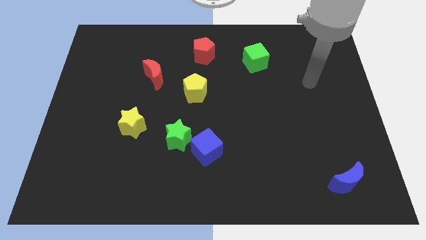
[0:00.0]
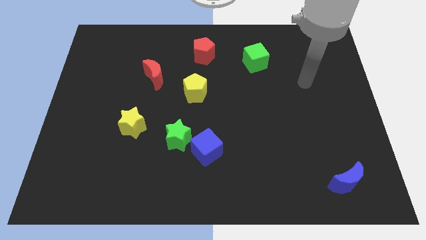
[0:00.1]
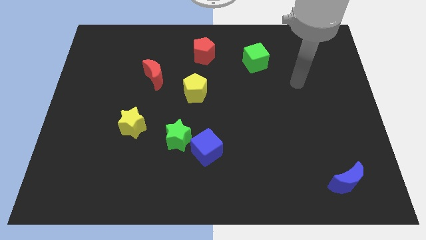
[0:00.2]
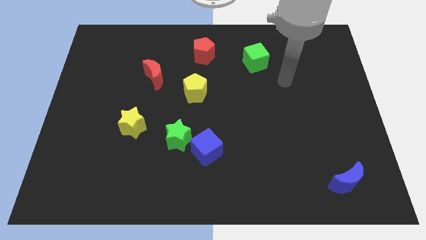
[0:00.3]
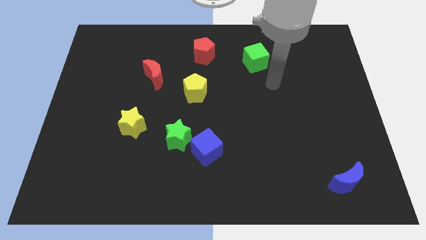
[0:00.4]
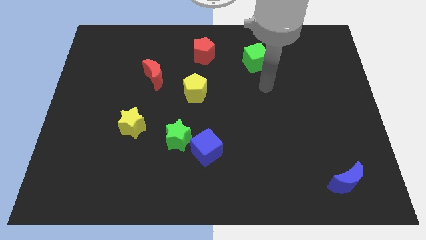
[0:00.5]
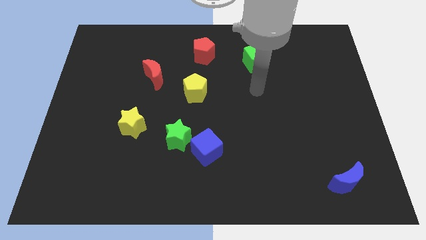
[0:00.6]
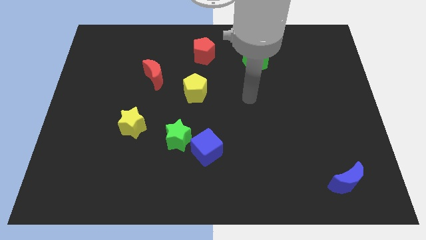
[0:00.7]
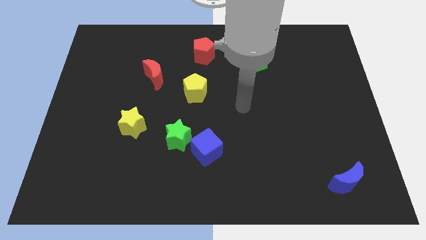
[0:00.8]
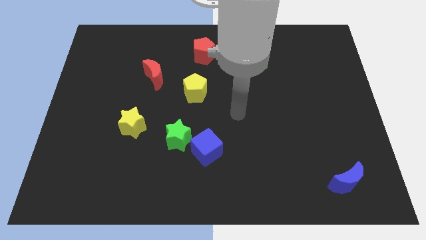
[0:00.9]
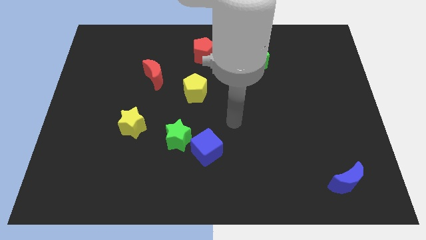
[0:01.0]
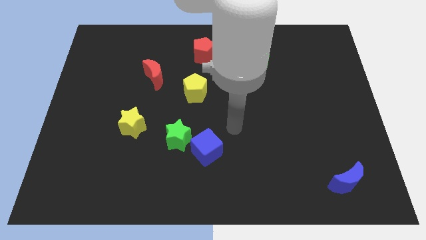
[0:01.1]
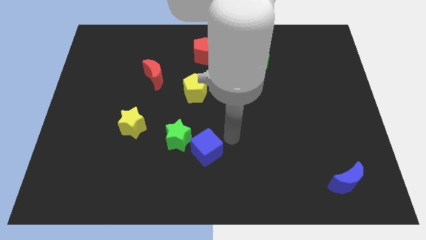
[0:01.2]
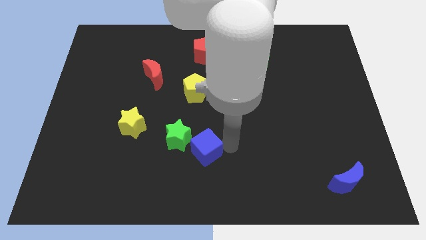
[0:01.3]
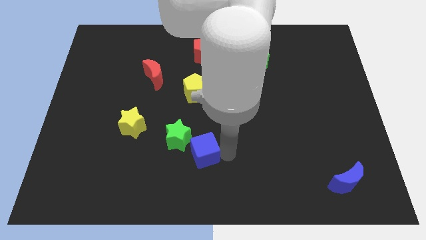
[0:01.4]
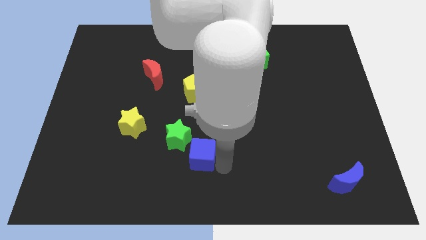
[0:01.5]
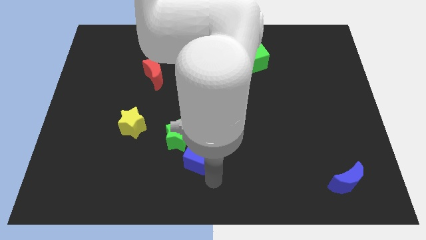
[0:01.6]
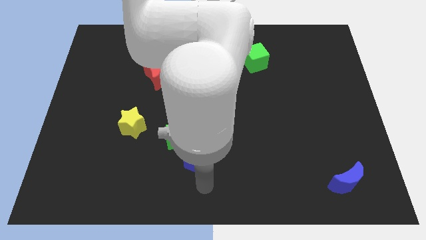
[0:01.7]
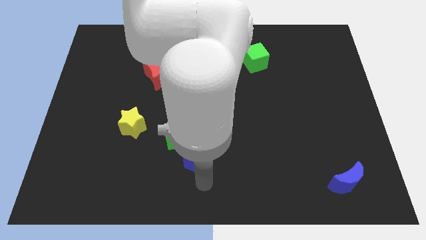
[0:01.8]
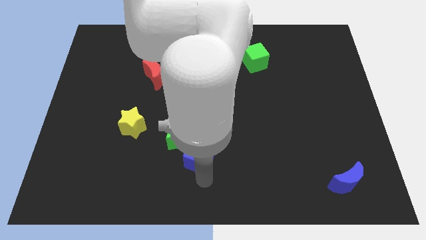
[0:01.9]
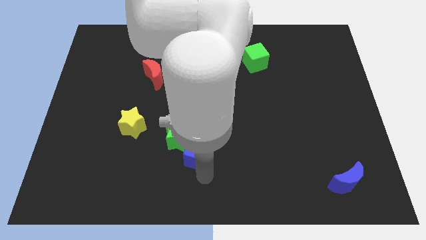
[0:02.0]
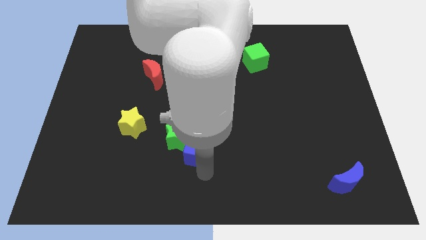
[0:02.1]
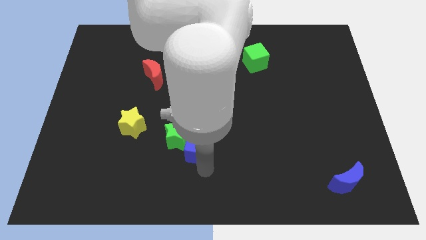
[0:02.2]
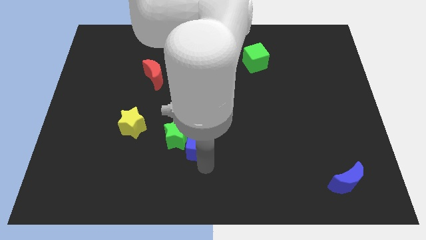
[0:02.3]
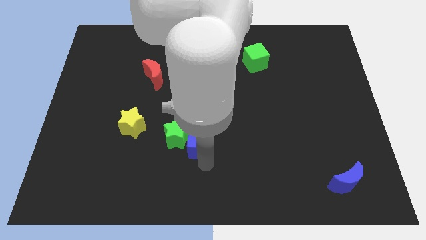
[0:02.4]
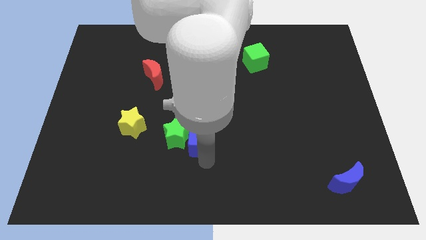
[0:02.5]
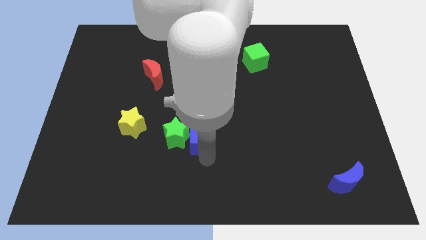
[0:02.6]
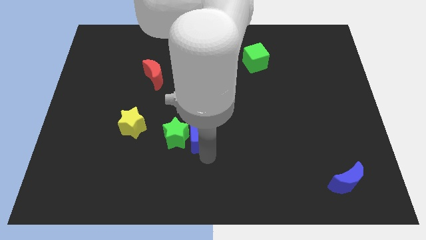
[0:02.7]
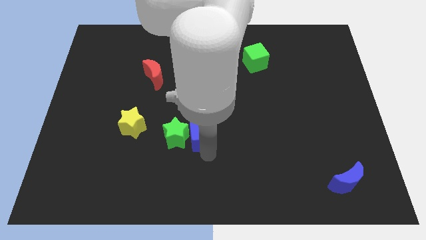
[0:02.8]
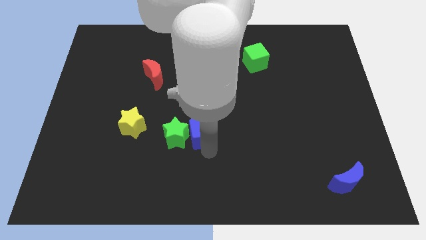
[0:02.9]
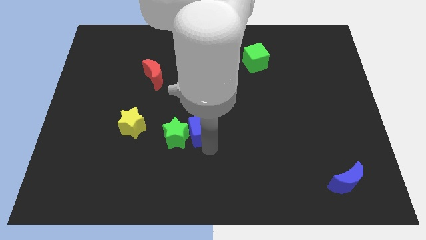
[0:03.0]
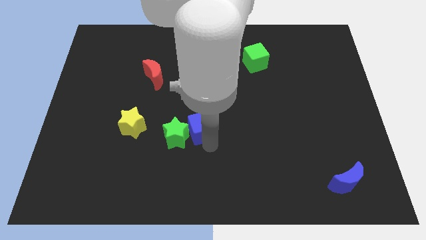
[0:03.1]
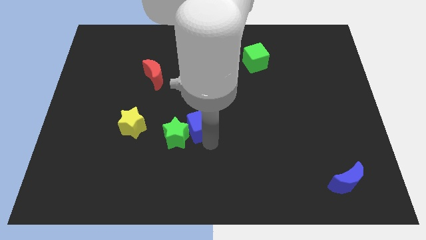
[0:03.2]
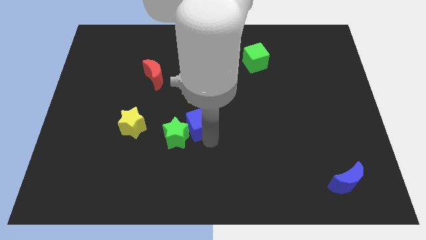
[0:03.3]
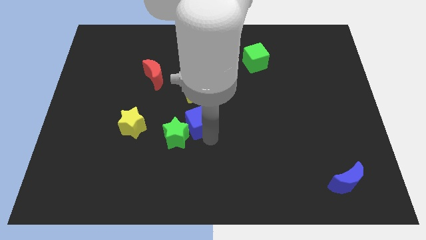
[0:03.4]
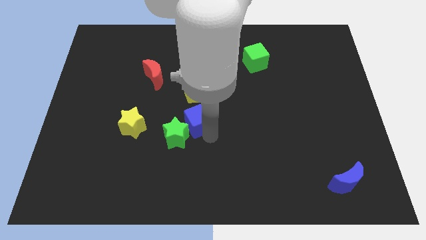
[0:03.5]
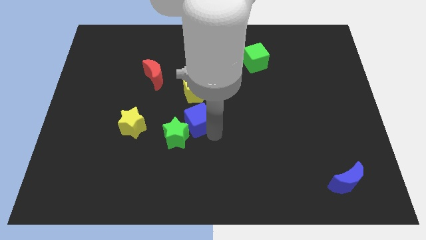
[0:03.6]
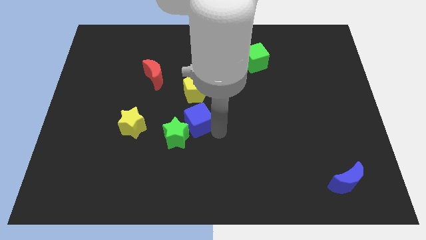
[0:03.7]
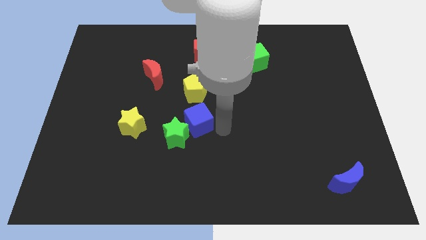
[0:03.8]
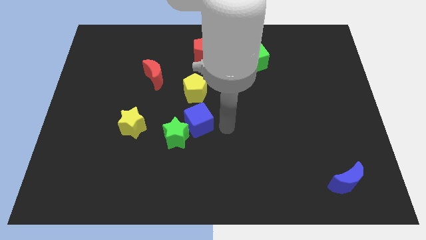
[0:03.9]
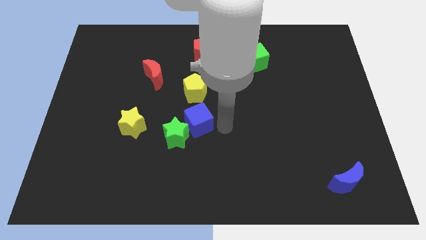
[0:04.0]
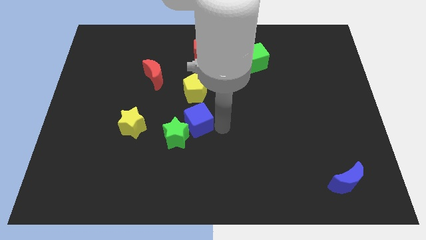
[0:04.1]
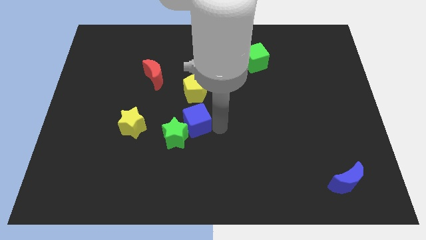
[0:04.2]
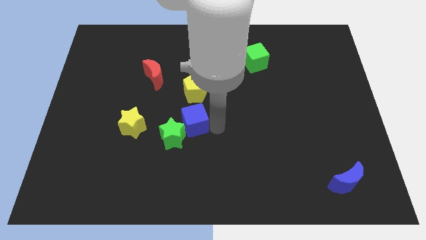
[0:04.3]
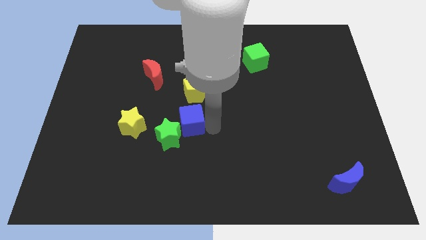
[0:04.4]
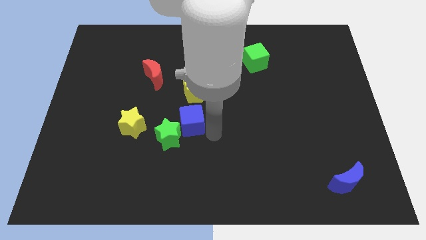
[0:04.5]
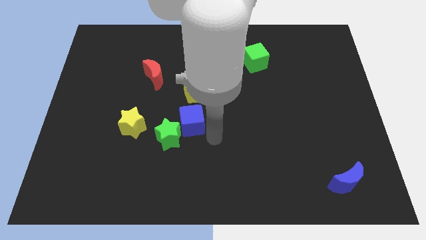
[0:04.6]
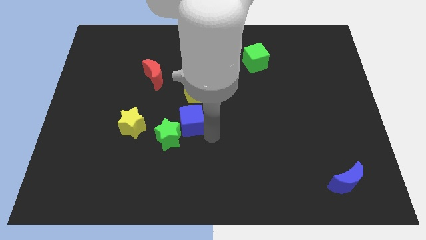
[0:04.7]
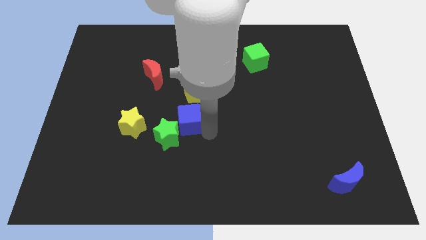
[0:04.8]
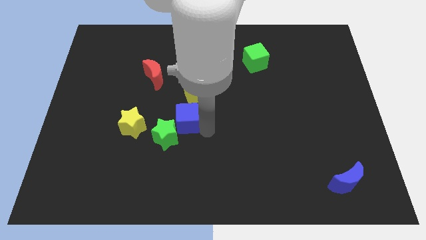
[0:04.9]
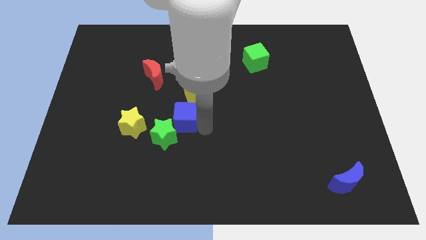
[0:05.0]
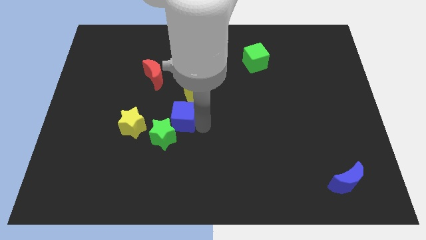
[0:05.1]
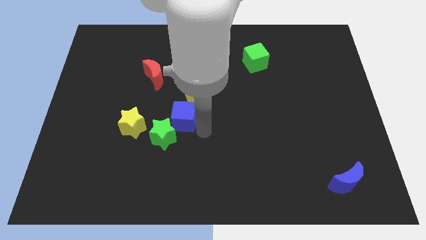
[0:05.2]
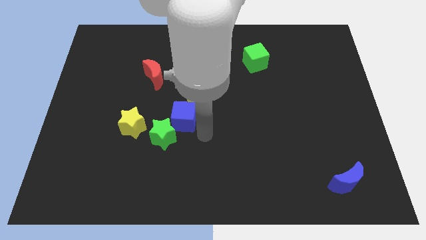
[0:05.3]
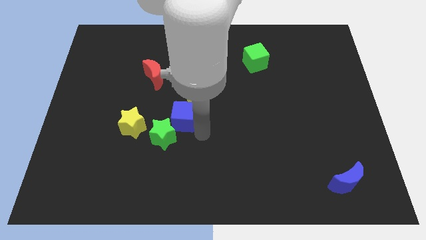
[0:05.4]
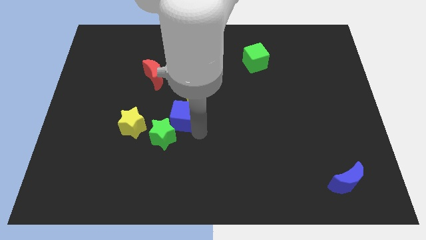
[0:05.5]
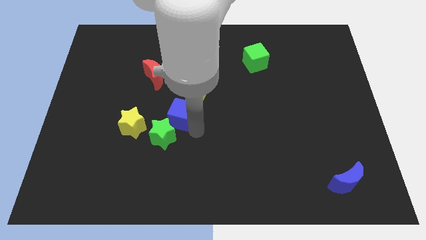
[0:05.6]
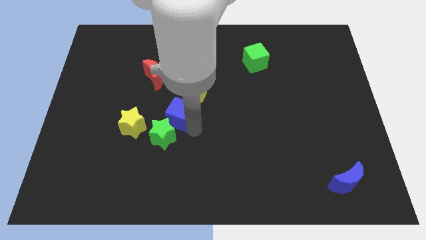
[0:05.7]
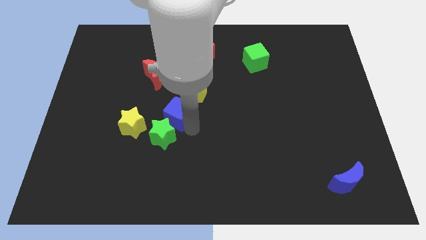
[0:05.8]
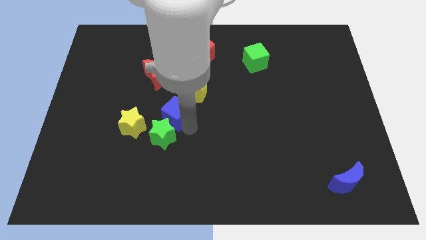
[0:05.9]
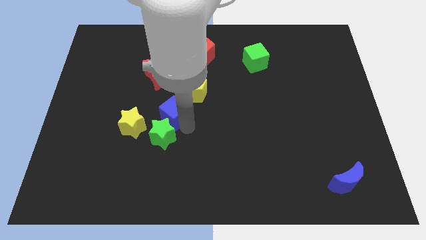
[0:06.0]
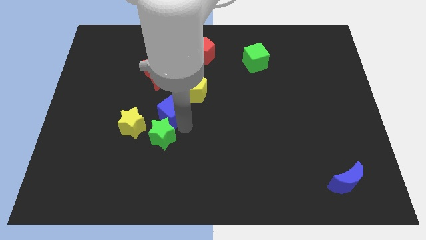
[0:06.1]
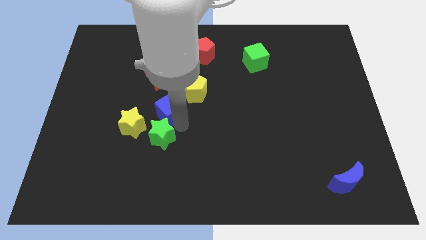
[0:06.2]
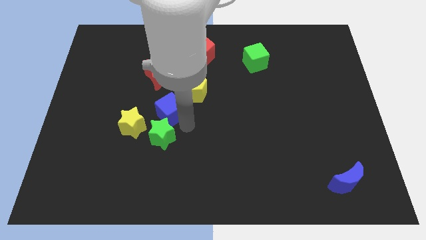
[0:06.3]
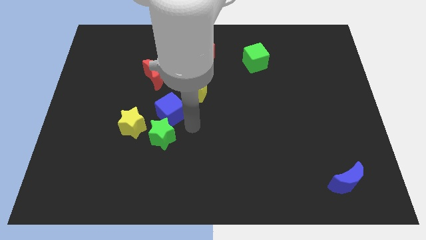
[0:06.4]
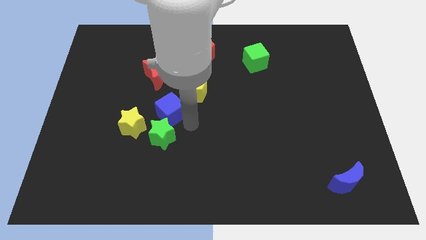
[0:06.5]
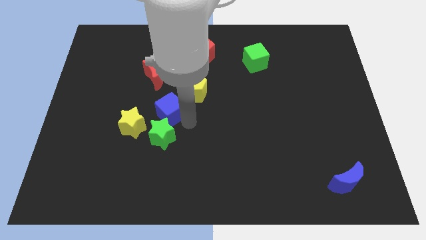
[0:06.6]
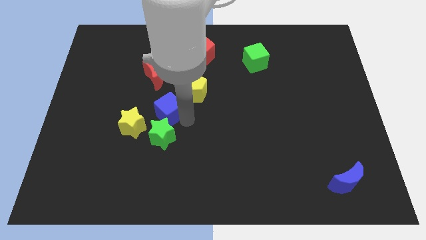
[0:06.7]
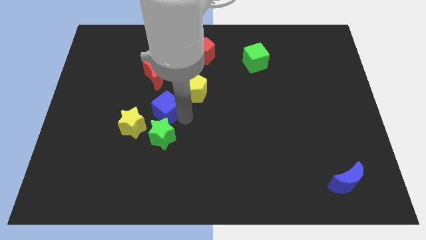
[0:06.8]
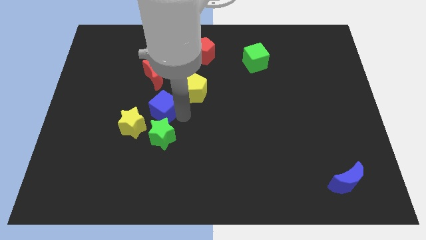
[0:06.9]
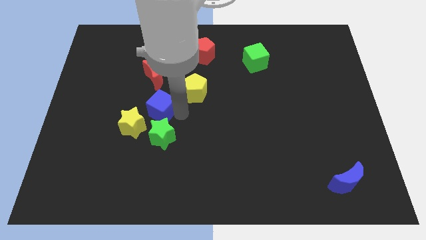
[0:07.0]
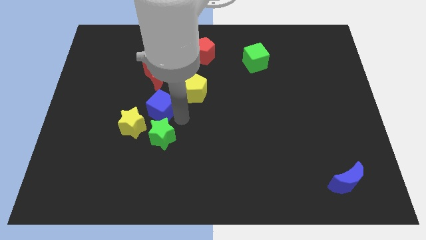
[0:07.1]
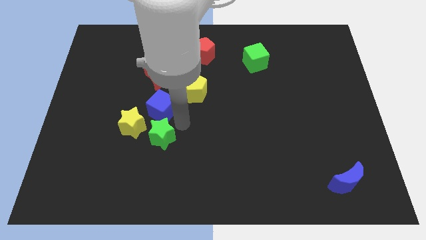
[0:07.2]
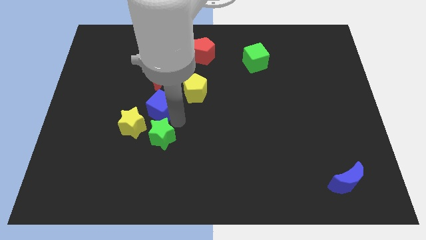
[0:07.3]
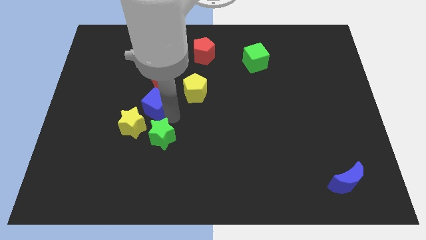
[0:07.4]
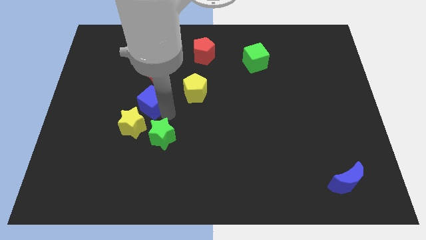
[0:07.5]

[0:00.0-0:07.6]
push the blue cube above the yellow star
